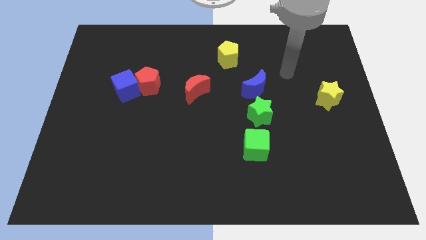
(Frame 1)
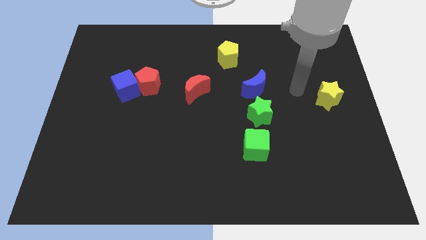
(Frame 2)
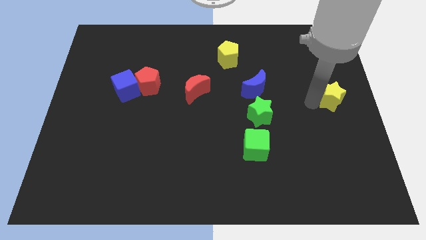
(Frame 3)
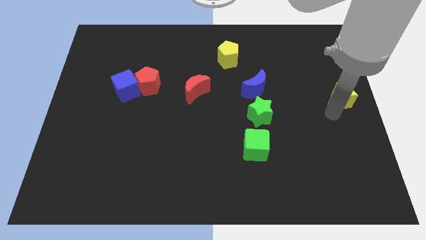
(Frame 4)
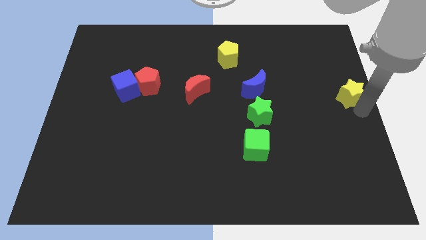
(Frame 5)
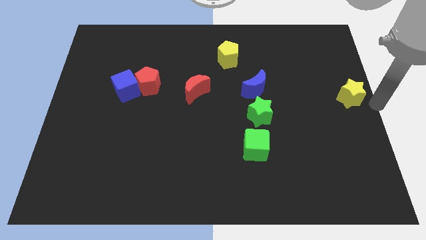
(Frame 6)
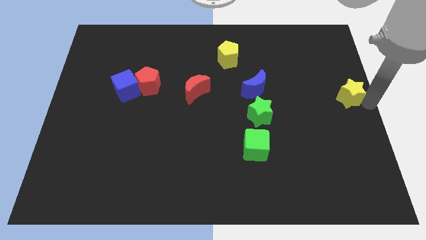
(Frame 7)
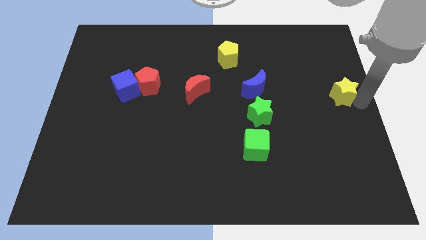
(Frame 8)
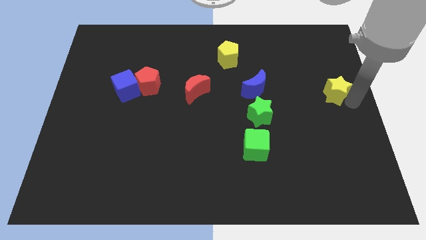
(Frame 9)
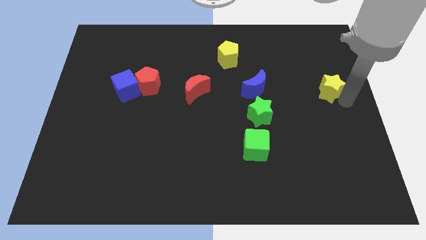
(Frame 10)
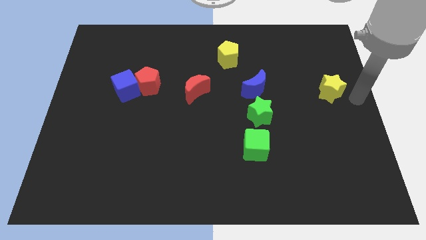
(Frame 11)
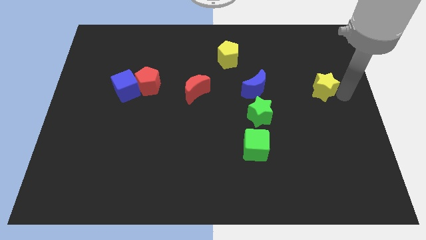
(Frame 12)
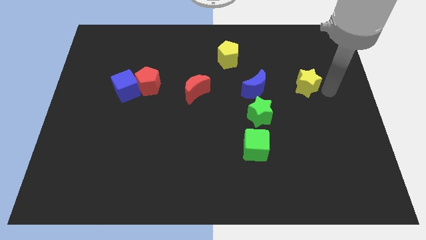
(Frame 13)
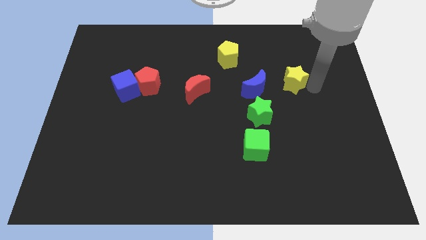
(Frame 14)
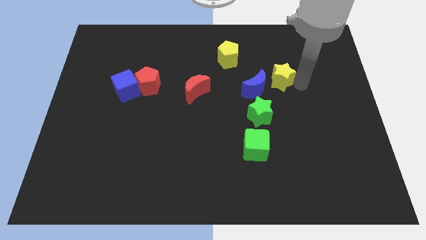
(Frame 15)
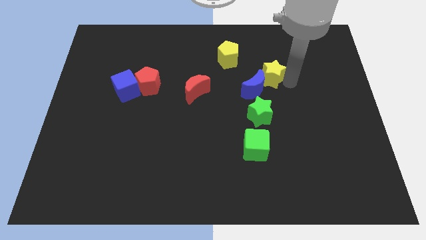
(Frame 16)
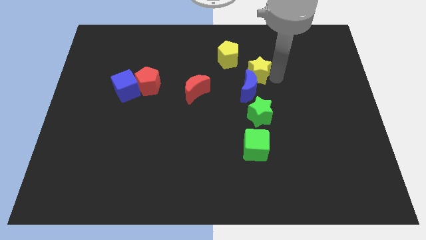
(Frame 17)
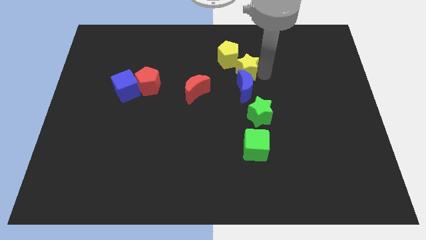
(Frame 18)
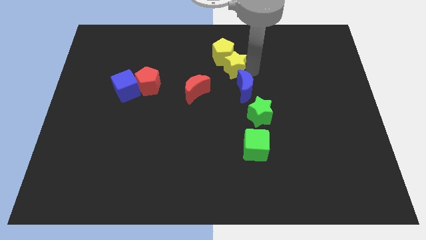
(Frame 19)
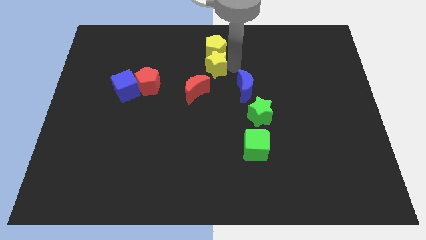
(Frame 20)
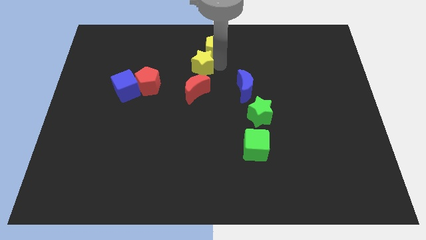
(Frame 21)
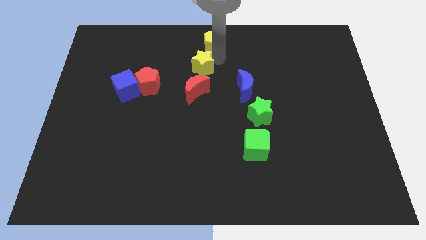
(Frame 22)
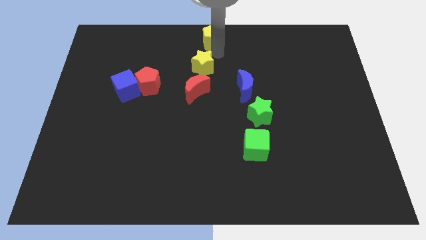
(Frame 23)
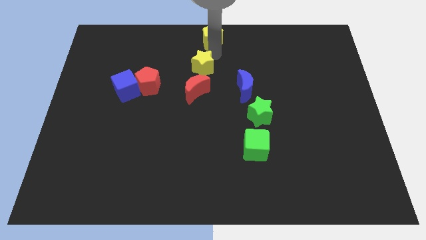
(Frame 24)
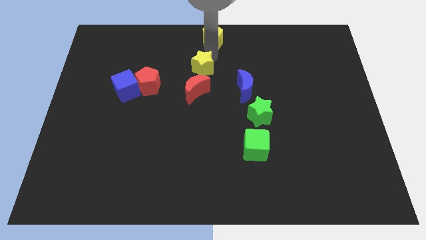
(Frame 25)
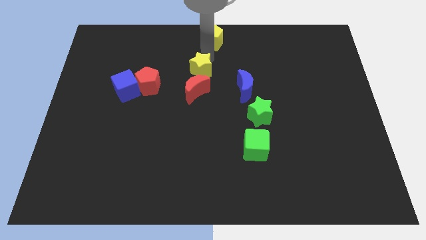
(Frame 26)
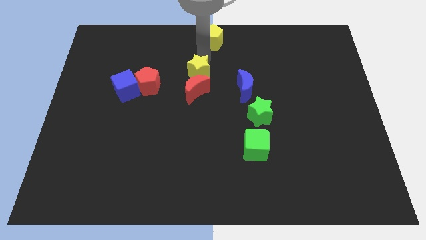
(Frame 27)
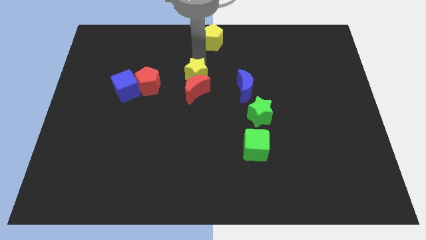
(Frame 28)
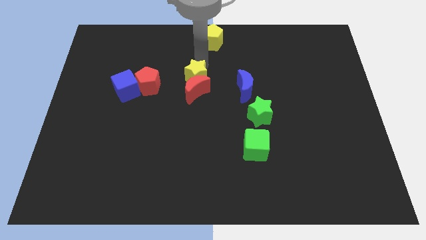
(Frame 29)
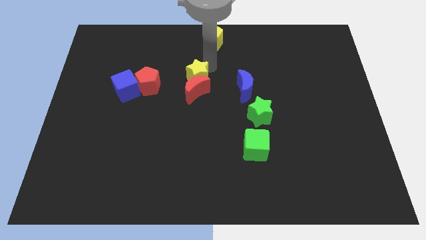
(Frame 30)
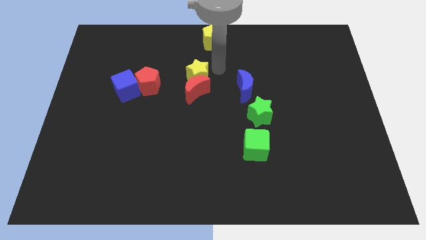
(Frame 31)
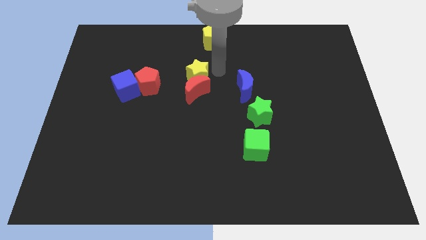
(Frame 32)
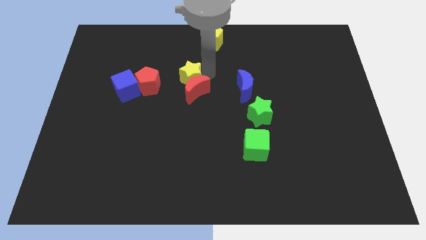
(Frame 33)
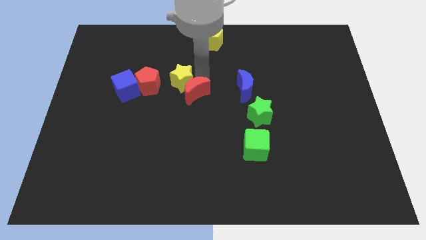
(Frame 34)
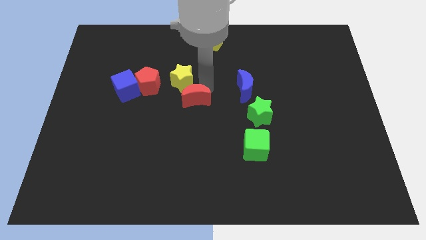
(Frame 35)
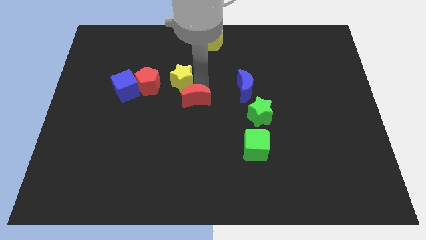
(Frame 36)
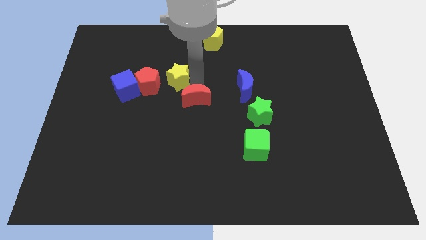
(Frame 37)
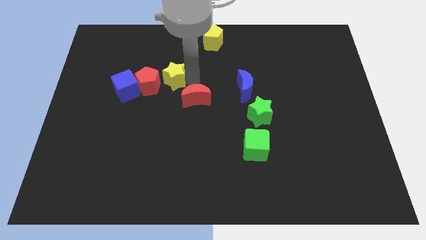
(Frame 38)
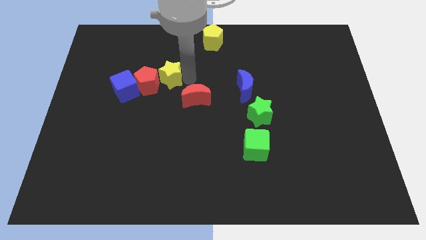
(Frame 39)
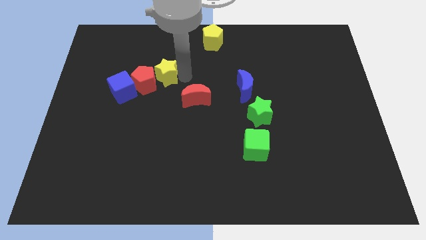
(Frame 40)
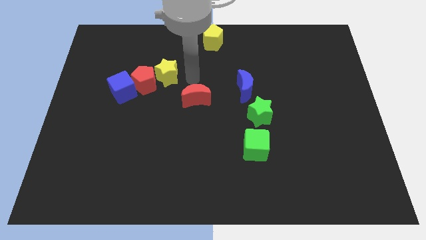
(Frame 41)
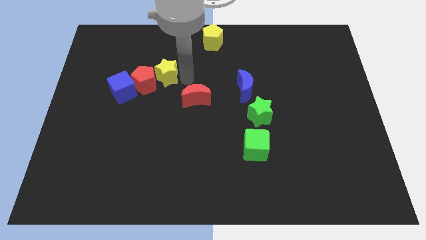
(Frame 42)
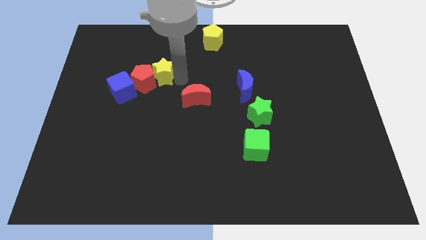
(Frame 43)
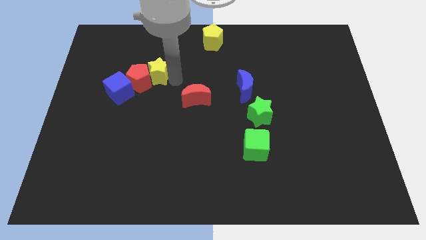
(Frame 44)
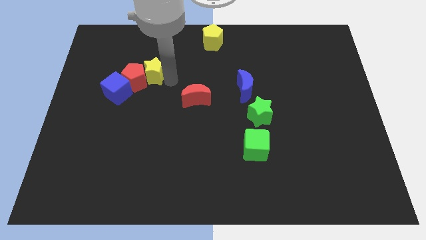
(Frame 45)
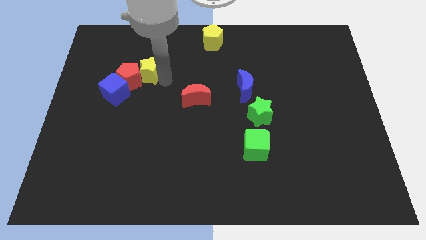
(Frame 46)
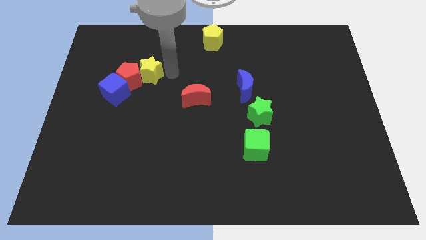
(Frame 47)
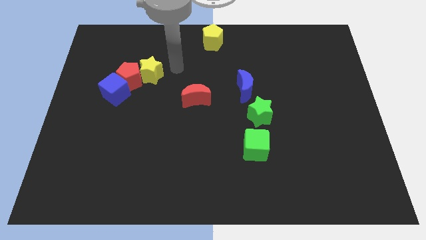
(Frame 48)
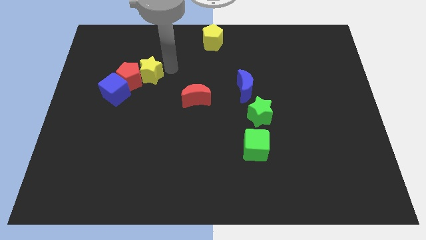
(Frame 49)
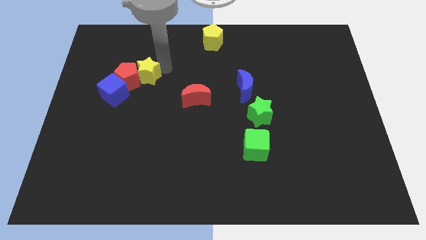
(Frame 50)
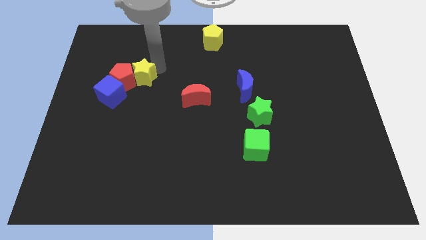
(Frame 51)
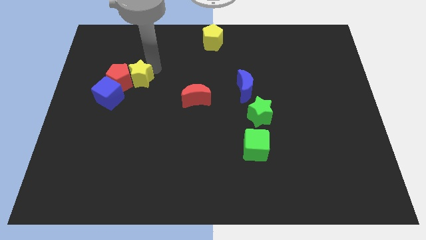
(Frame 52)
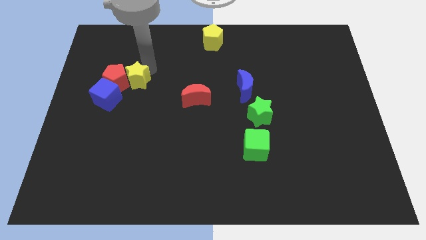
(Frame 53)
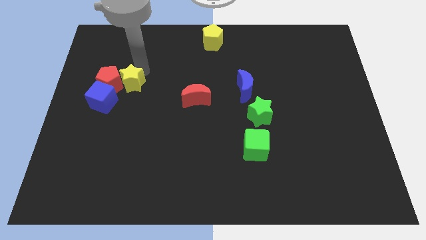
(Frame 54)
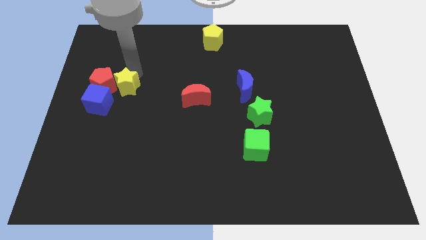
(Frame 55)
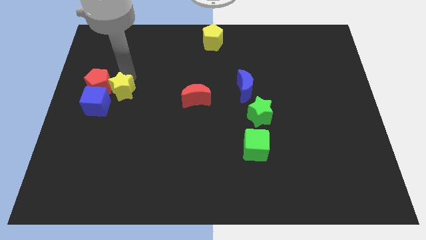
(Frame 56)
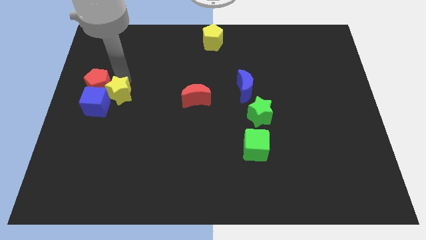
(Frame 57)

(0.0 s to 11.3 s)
slide the yellow star to the blue cube

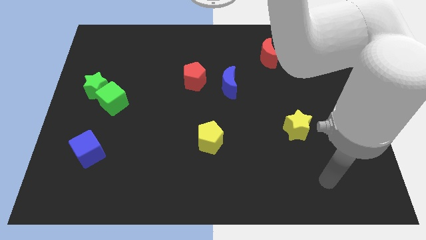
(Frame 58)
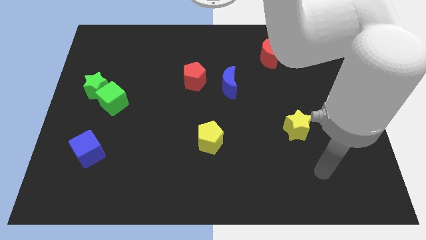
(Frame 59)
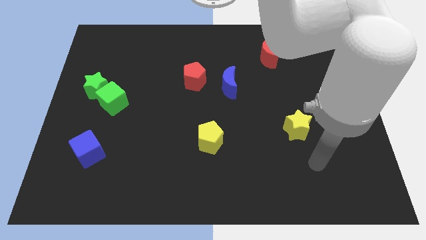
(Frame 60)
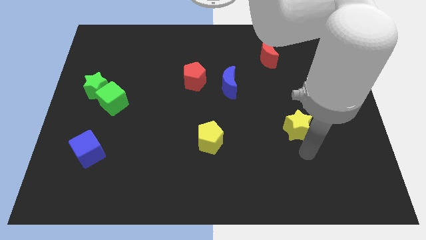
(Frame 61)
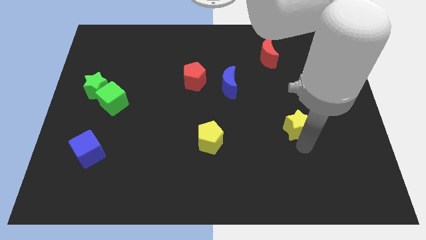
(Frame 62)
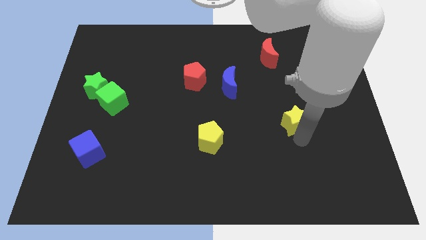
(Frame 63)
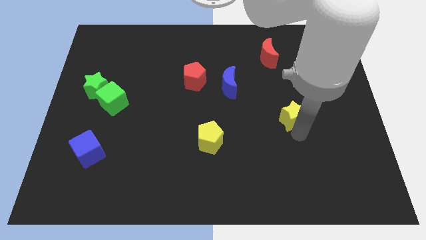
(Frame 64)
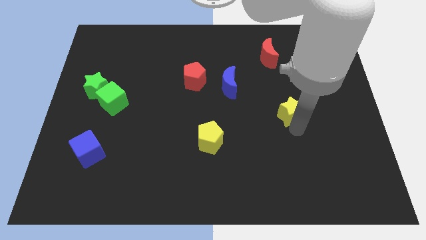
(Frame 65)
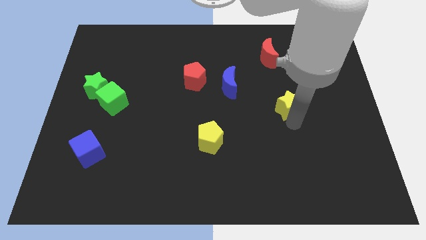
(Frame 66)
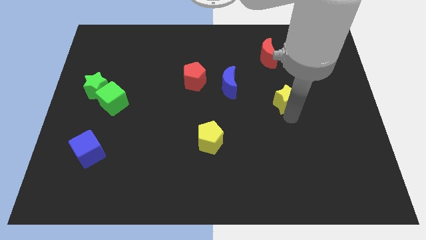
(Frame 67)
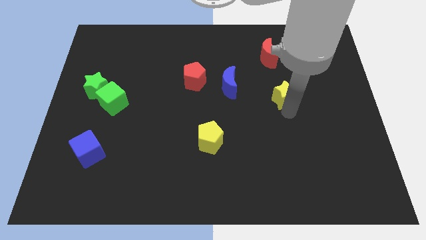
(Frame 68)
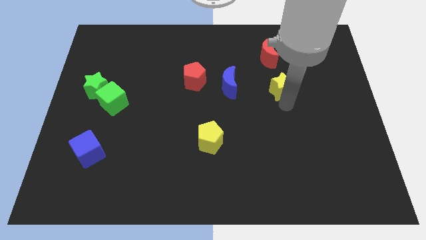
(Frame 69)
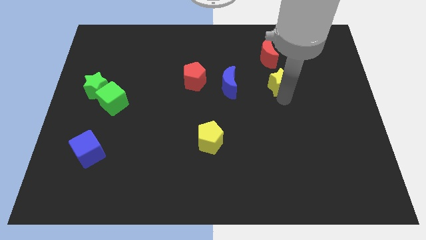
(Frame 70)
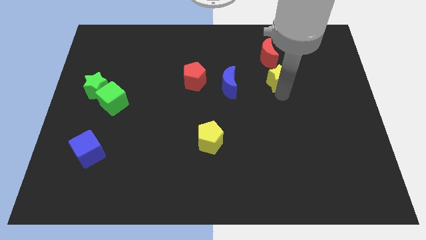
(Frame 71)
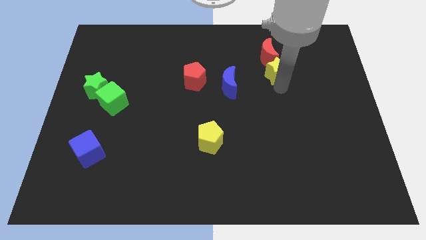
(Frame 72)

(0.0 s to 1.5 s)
put the yellow star towards the red moon
